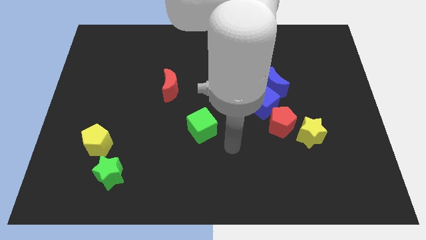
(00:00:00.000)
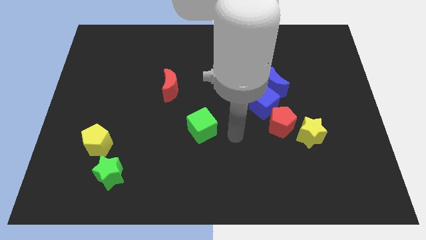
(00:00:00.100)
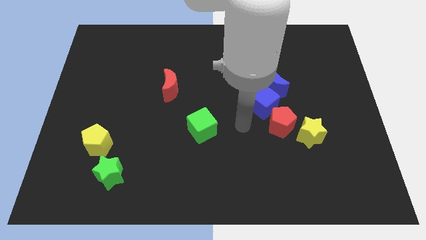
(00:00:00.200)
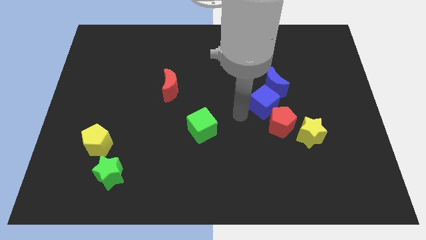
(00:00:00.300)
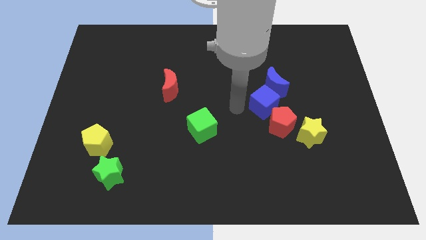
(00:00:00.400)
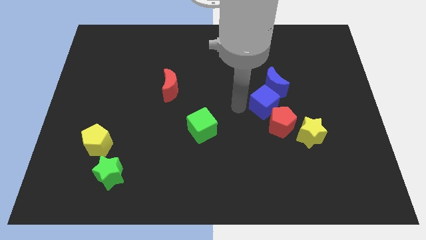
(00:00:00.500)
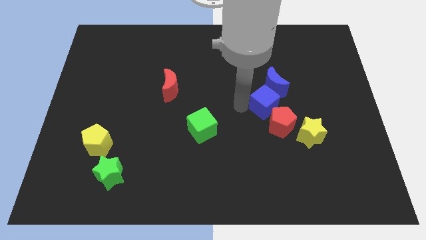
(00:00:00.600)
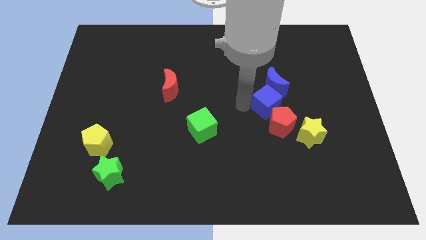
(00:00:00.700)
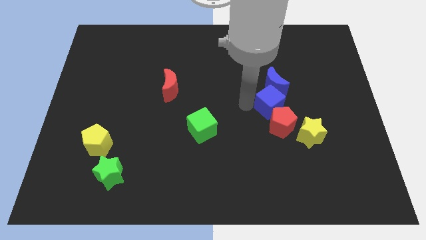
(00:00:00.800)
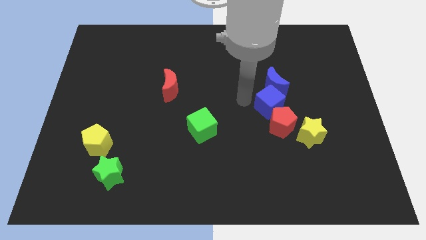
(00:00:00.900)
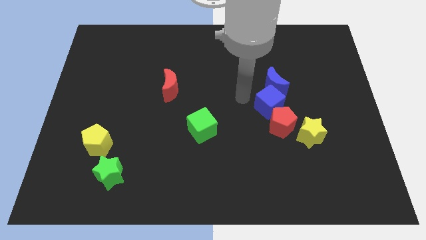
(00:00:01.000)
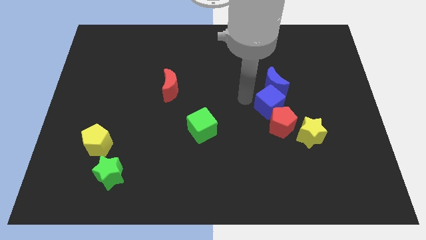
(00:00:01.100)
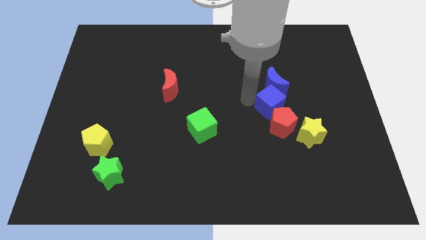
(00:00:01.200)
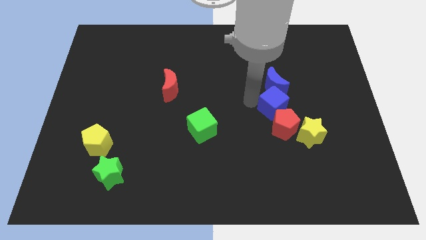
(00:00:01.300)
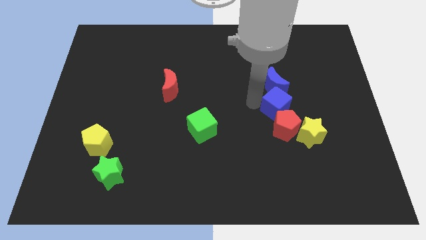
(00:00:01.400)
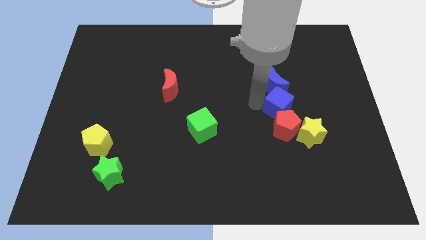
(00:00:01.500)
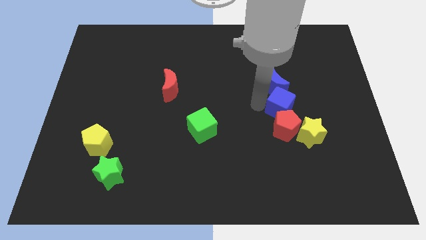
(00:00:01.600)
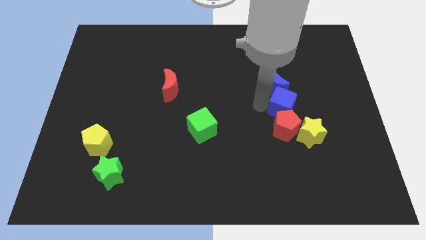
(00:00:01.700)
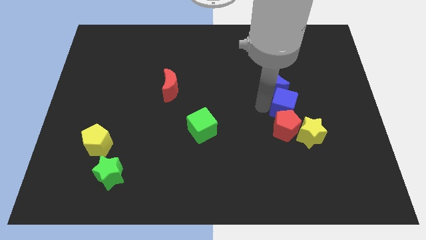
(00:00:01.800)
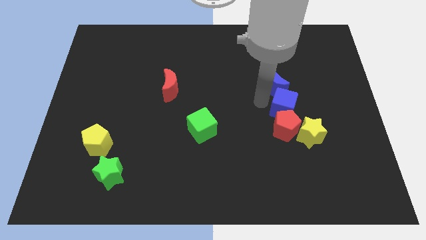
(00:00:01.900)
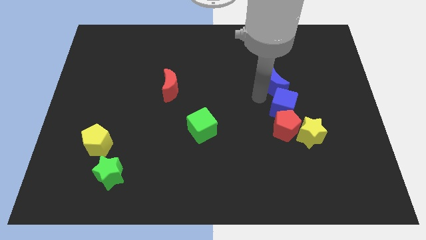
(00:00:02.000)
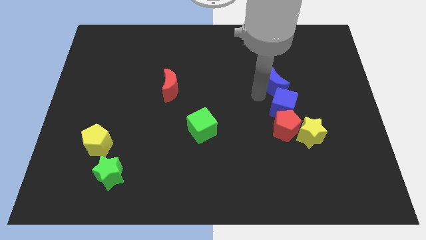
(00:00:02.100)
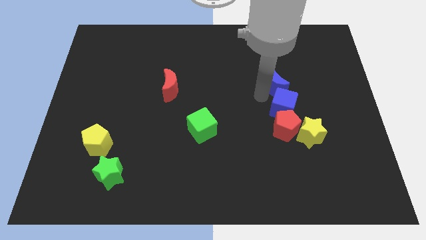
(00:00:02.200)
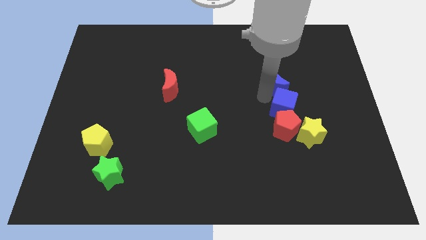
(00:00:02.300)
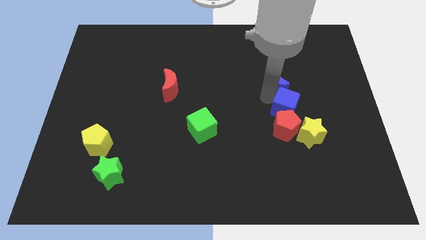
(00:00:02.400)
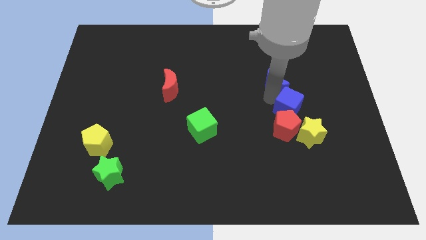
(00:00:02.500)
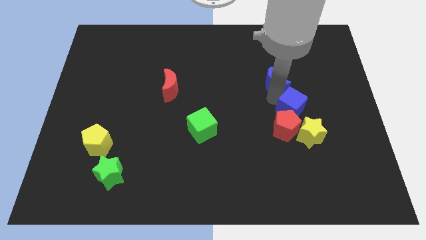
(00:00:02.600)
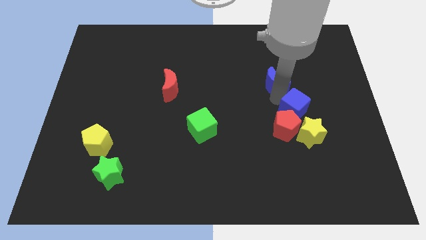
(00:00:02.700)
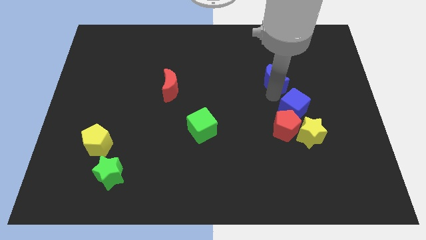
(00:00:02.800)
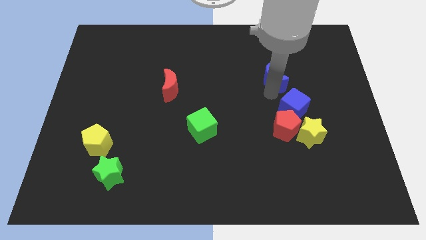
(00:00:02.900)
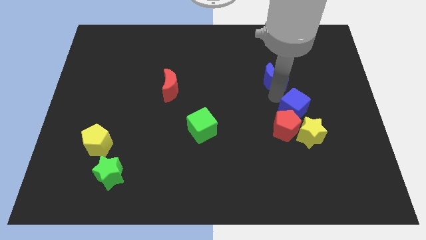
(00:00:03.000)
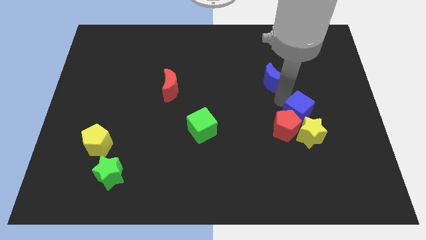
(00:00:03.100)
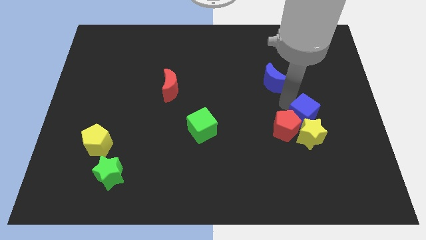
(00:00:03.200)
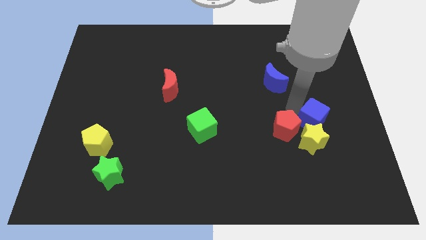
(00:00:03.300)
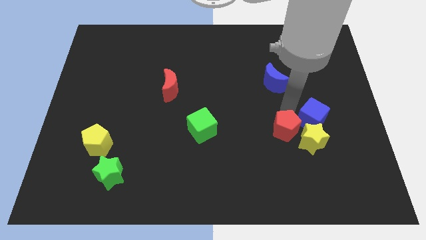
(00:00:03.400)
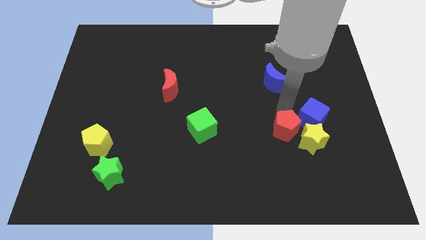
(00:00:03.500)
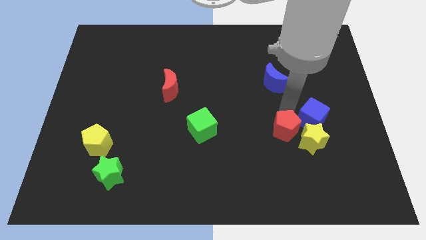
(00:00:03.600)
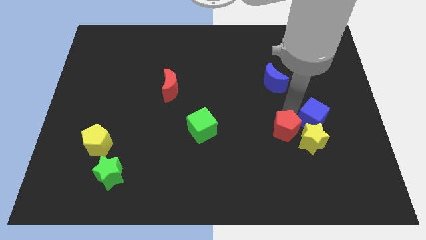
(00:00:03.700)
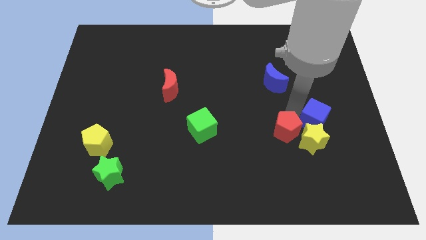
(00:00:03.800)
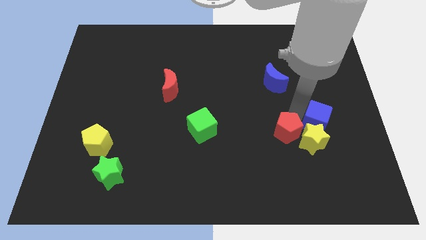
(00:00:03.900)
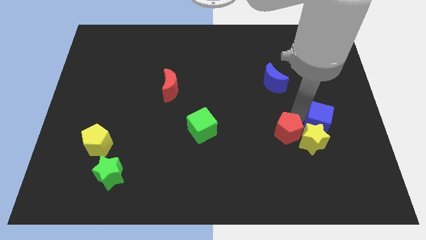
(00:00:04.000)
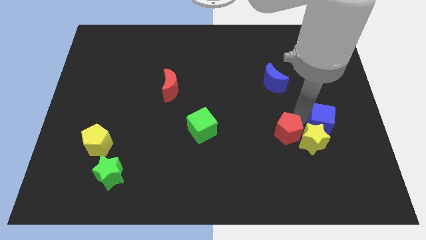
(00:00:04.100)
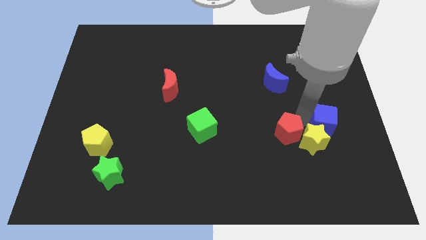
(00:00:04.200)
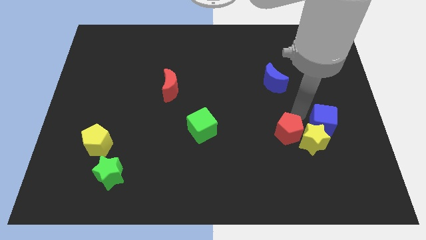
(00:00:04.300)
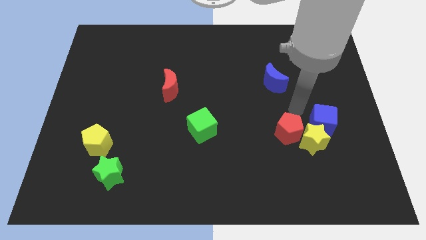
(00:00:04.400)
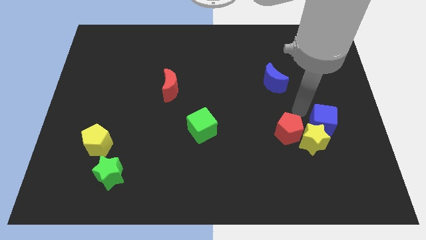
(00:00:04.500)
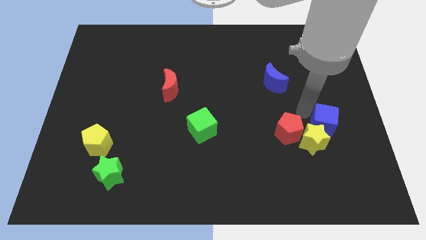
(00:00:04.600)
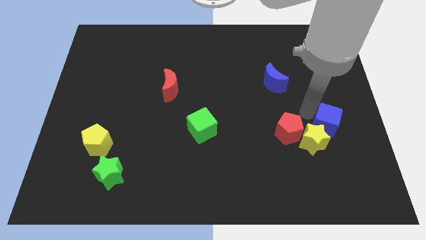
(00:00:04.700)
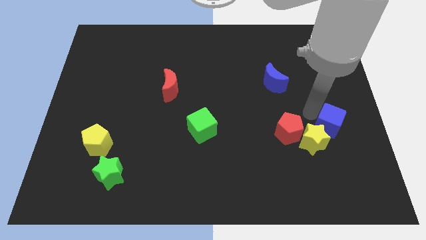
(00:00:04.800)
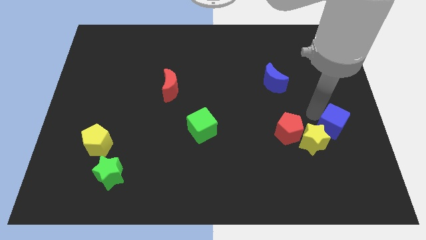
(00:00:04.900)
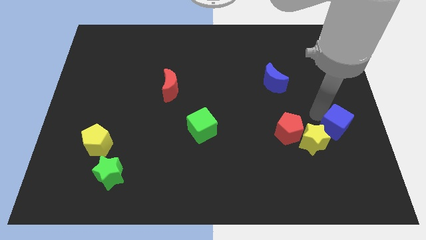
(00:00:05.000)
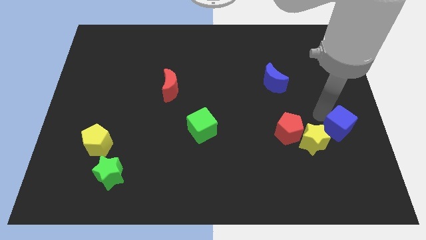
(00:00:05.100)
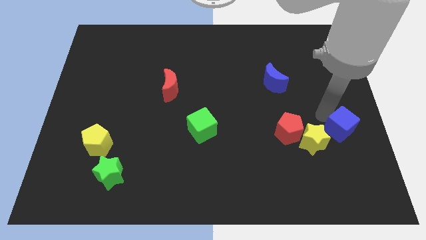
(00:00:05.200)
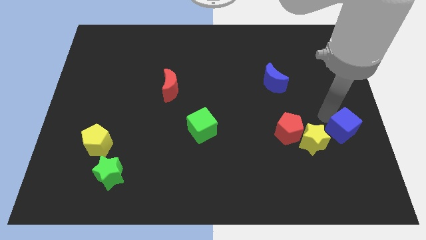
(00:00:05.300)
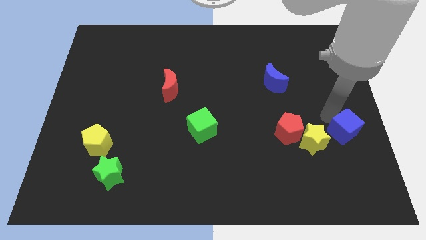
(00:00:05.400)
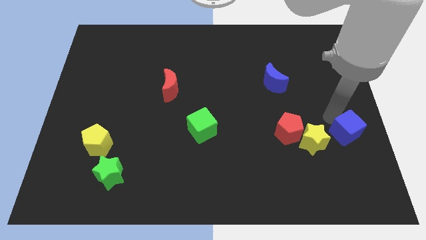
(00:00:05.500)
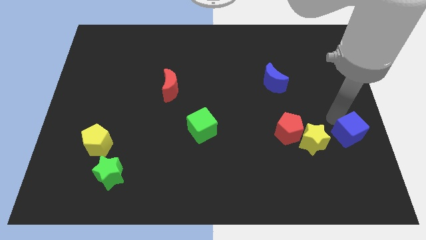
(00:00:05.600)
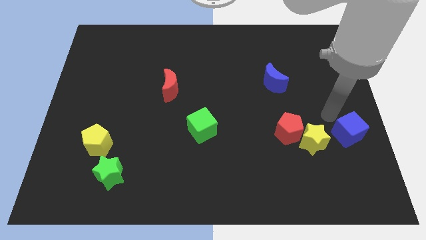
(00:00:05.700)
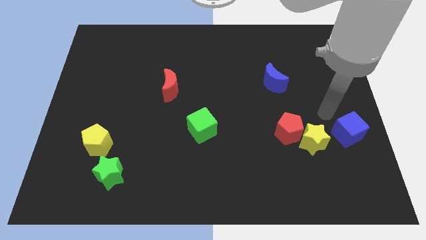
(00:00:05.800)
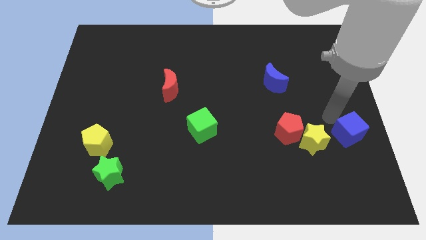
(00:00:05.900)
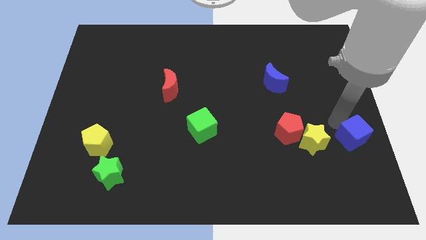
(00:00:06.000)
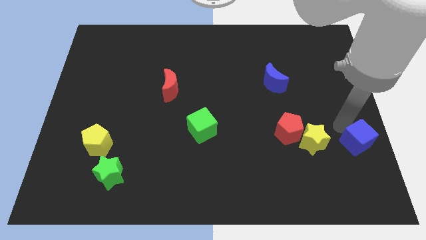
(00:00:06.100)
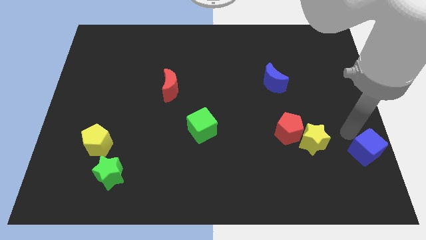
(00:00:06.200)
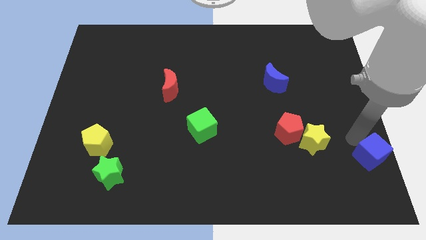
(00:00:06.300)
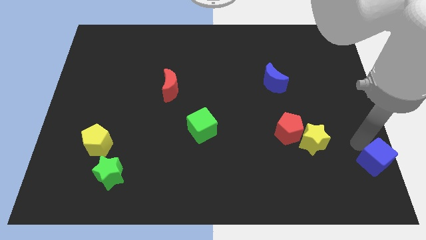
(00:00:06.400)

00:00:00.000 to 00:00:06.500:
put the blue cube to the bottom right corner
